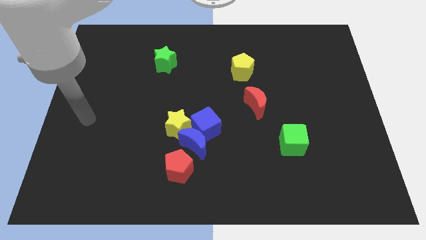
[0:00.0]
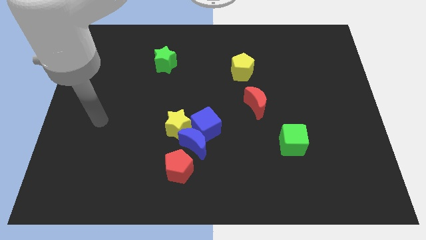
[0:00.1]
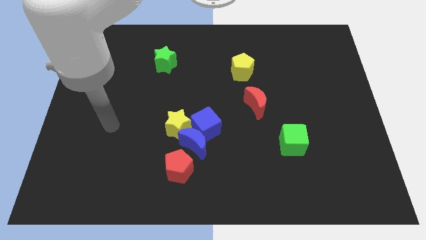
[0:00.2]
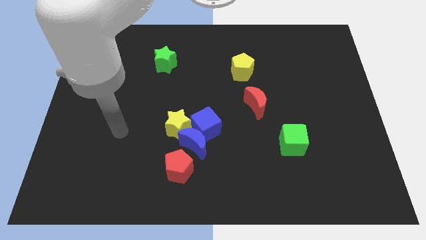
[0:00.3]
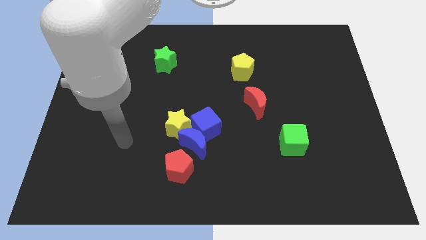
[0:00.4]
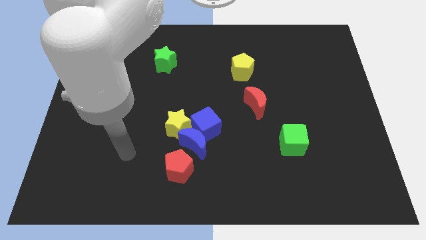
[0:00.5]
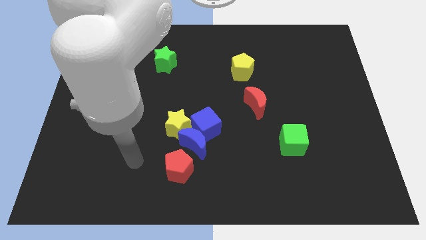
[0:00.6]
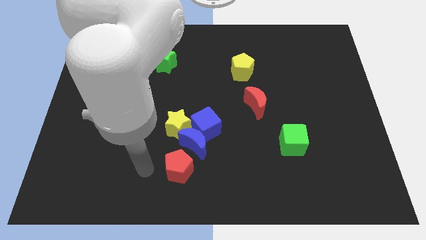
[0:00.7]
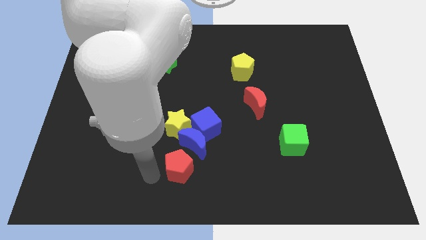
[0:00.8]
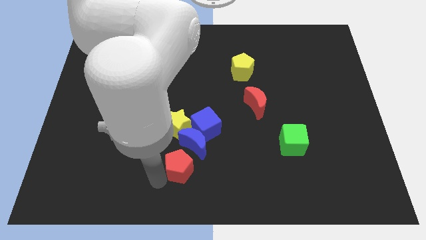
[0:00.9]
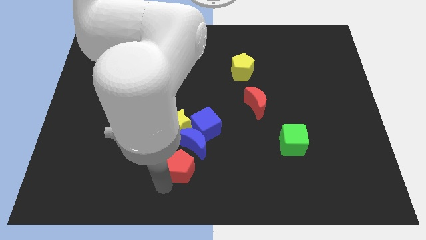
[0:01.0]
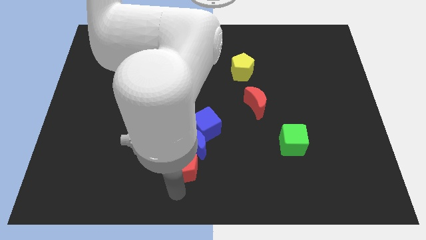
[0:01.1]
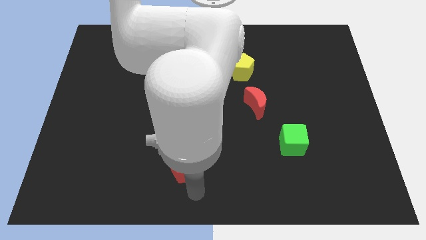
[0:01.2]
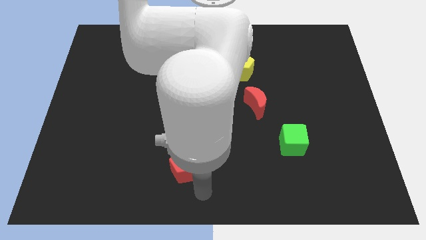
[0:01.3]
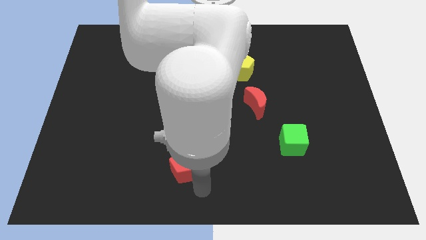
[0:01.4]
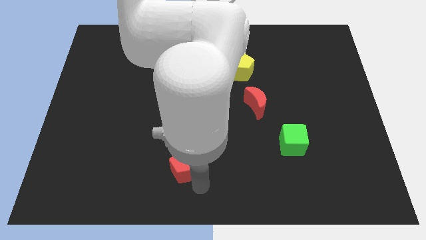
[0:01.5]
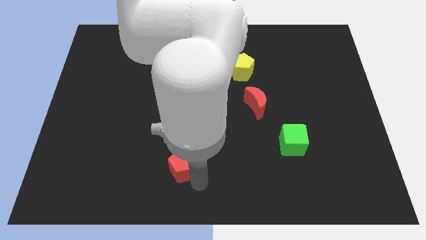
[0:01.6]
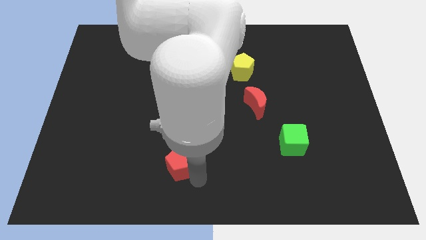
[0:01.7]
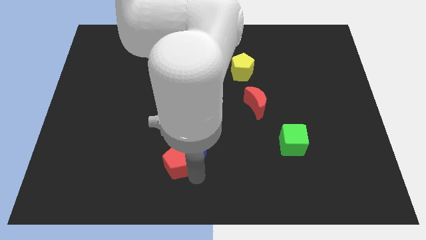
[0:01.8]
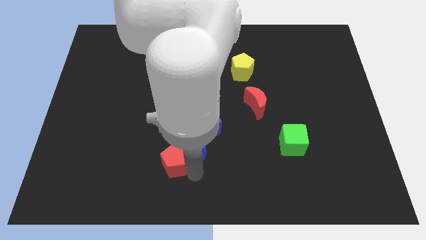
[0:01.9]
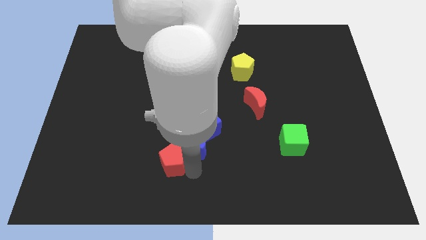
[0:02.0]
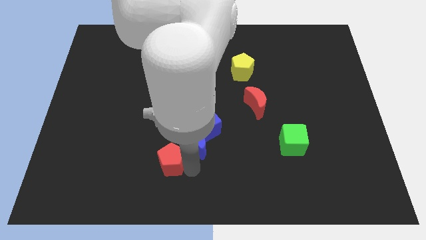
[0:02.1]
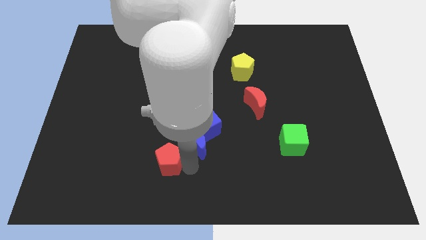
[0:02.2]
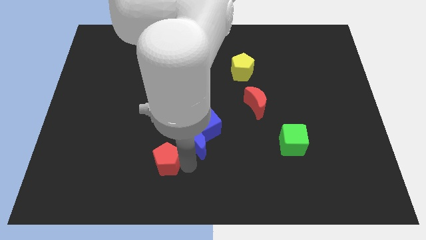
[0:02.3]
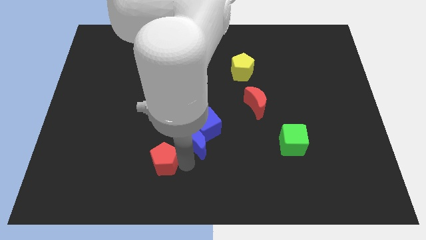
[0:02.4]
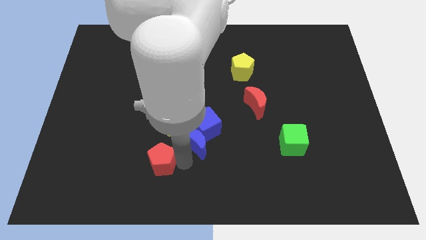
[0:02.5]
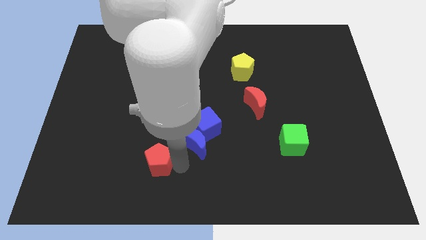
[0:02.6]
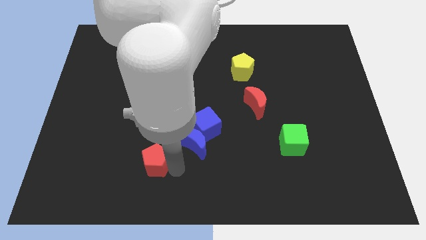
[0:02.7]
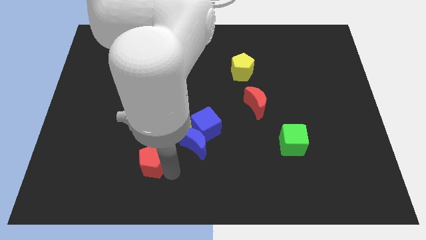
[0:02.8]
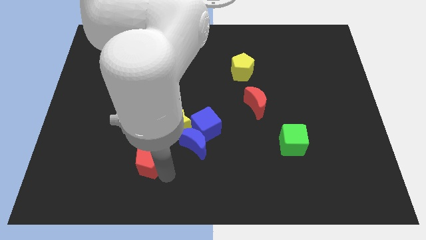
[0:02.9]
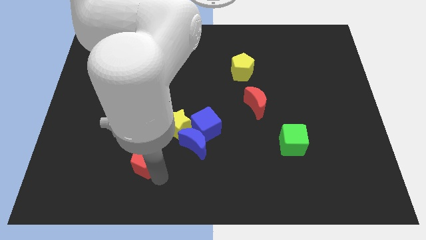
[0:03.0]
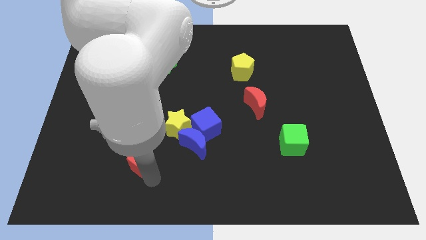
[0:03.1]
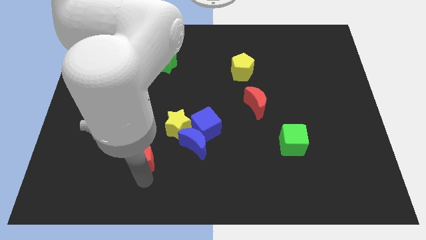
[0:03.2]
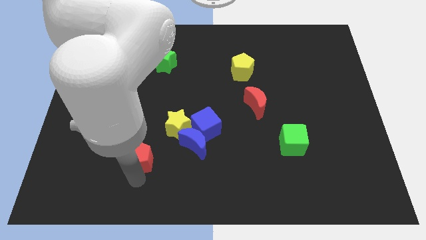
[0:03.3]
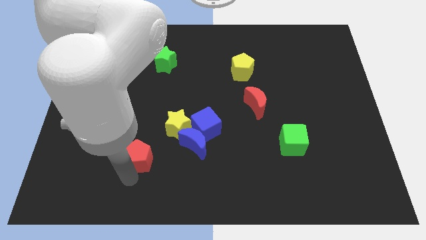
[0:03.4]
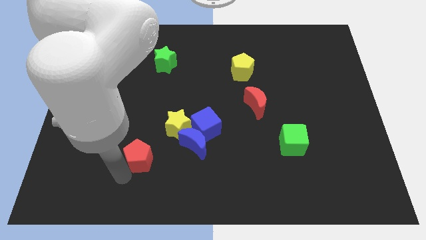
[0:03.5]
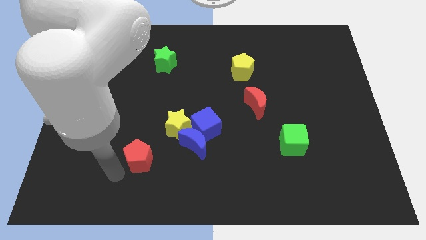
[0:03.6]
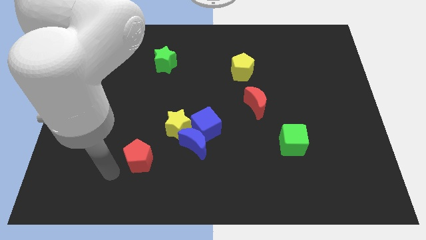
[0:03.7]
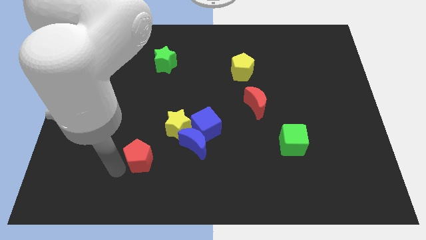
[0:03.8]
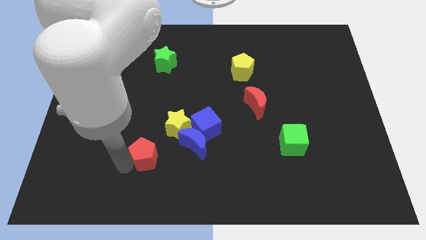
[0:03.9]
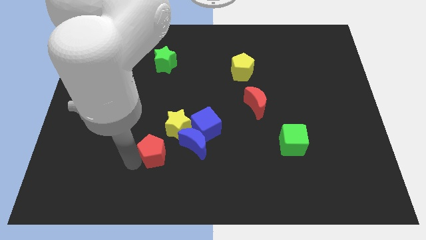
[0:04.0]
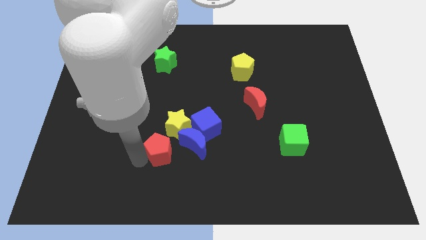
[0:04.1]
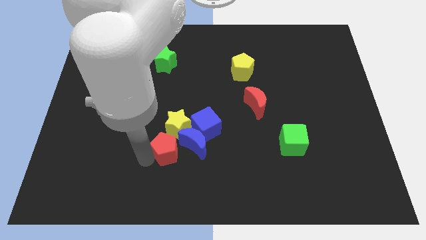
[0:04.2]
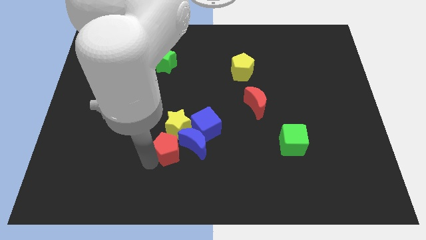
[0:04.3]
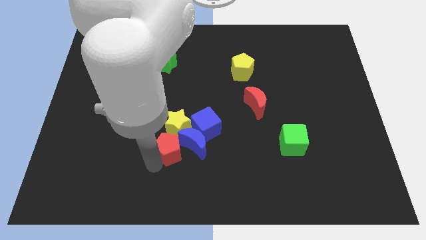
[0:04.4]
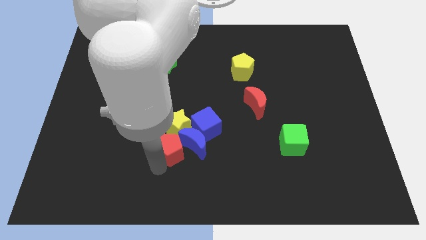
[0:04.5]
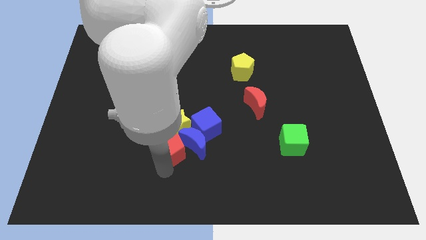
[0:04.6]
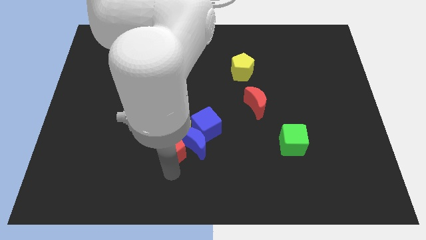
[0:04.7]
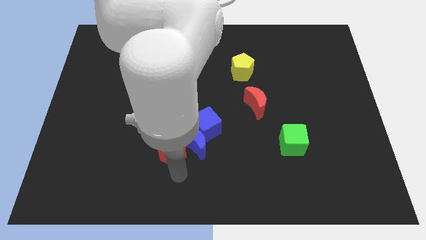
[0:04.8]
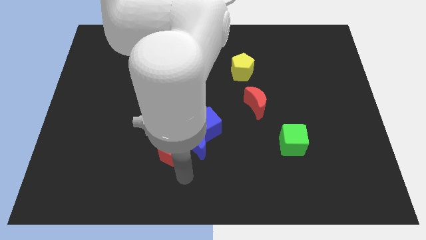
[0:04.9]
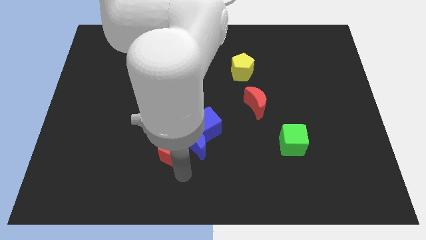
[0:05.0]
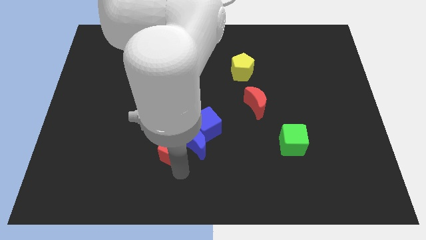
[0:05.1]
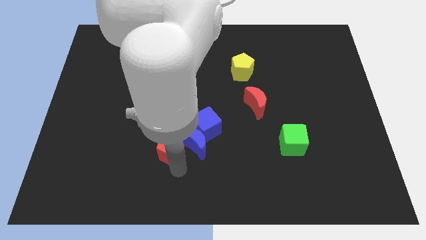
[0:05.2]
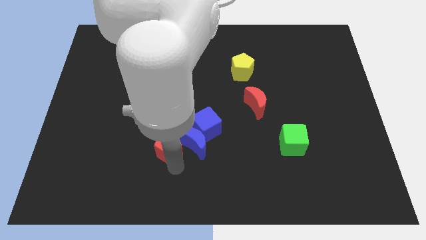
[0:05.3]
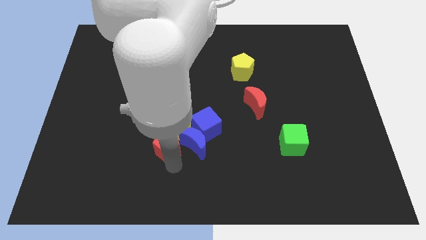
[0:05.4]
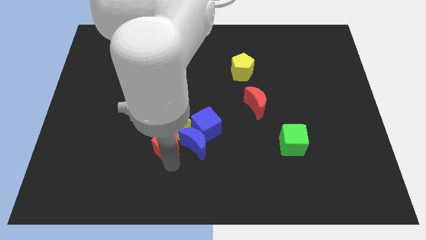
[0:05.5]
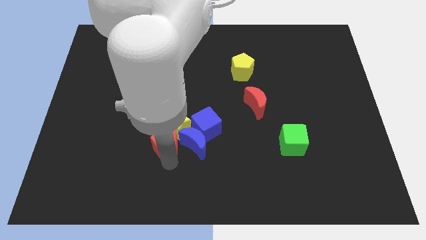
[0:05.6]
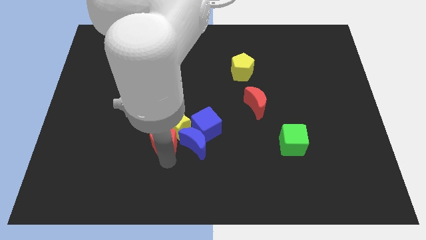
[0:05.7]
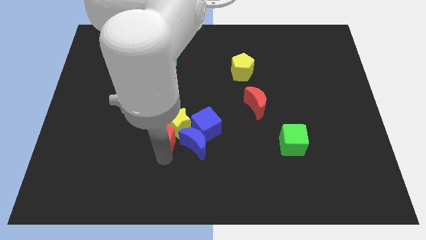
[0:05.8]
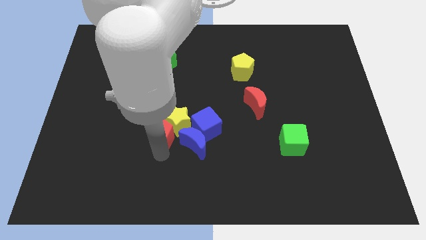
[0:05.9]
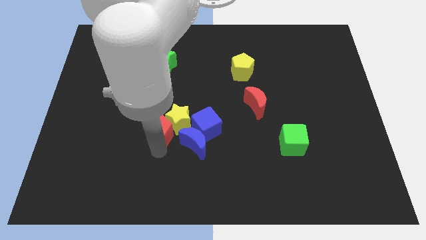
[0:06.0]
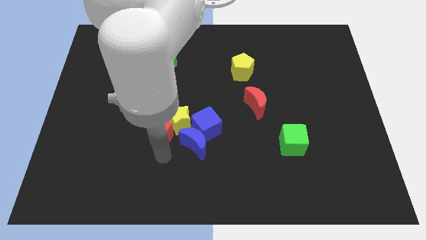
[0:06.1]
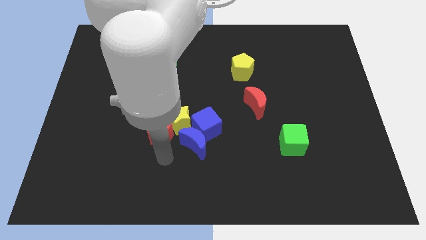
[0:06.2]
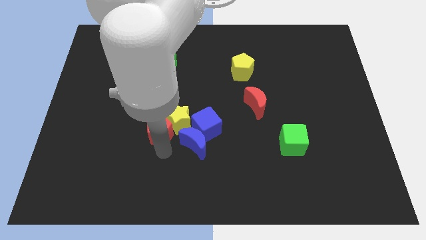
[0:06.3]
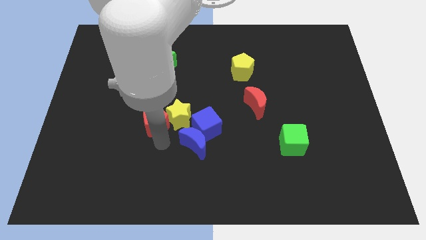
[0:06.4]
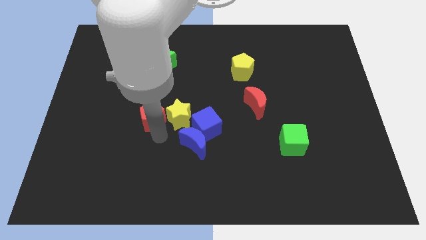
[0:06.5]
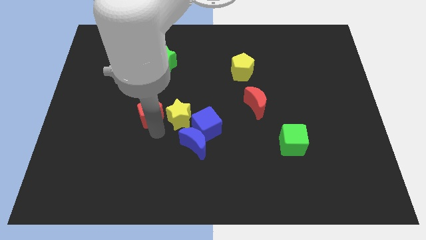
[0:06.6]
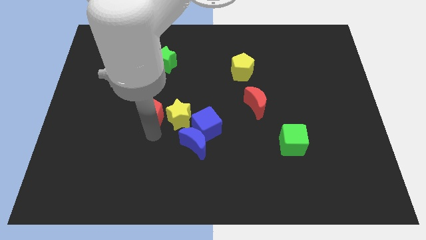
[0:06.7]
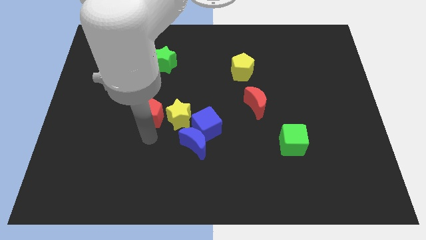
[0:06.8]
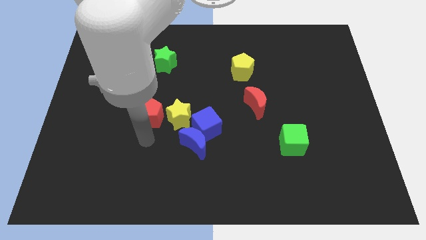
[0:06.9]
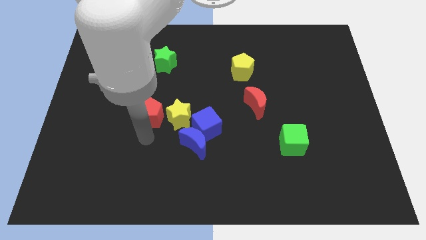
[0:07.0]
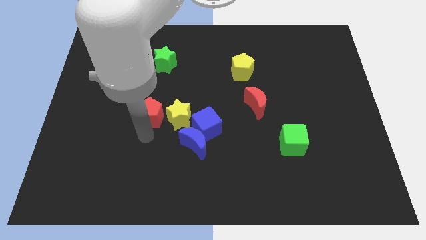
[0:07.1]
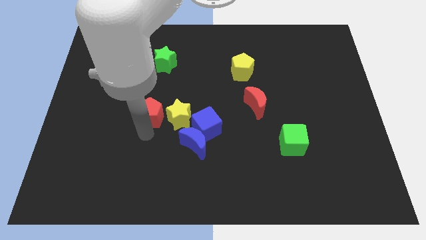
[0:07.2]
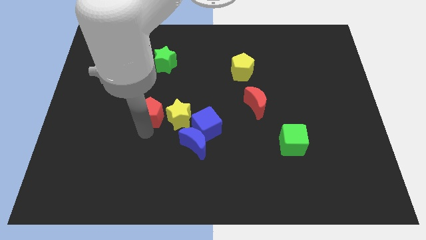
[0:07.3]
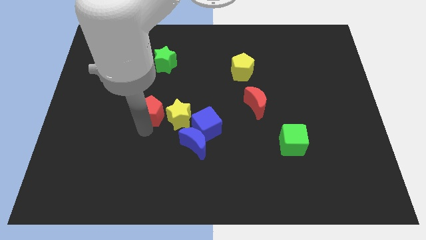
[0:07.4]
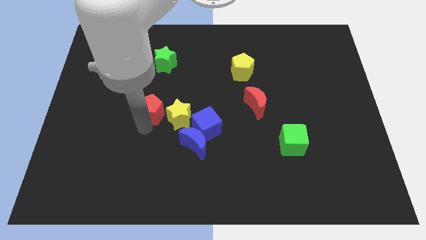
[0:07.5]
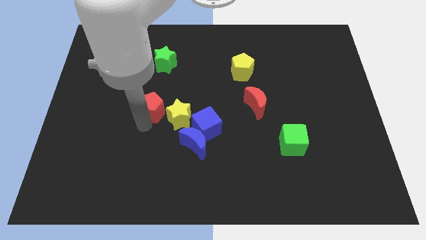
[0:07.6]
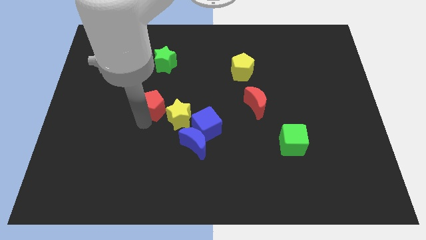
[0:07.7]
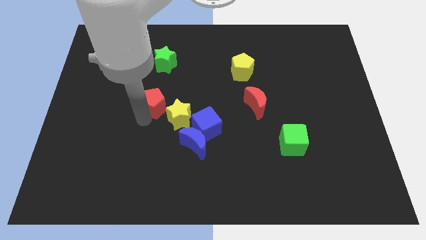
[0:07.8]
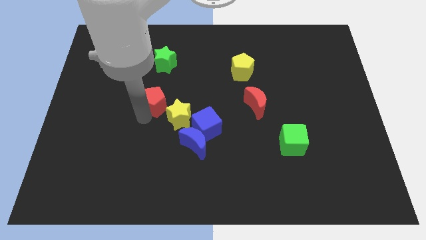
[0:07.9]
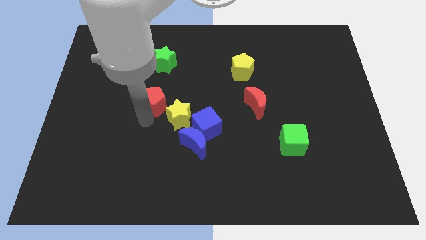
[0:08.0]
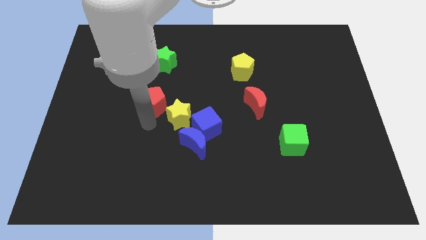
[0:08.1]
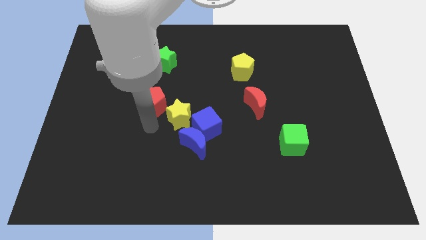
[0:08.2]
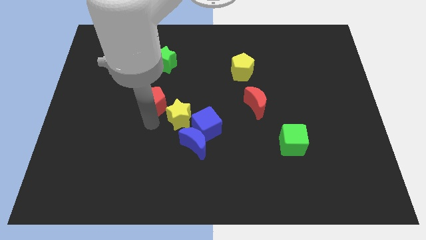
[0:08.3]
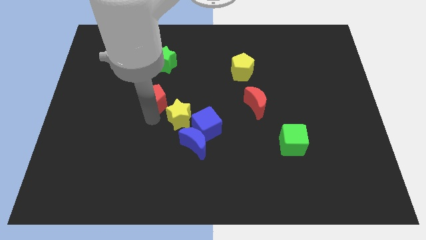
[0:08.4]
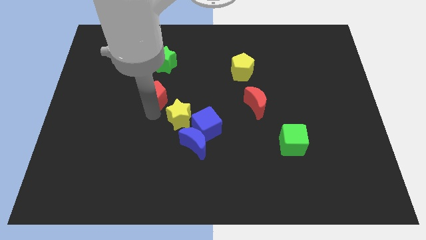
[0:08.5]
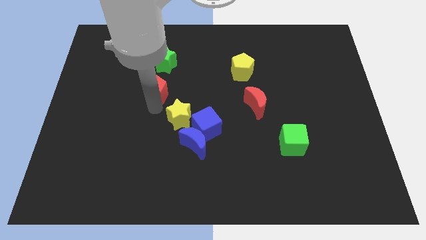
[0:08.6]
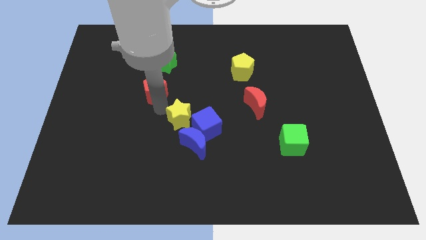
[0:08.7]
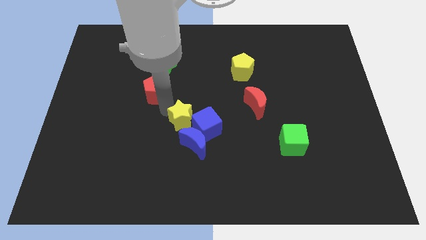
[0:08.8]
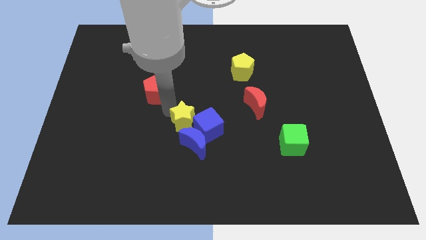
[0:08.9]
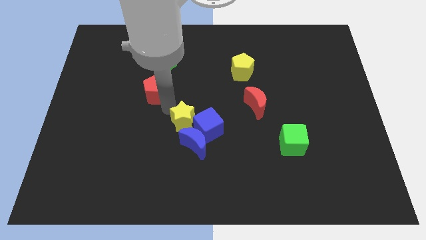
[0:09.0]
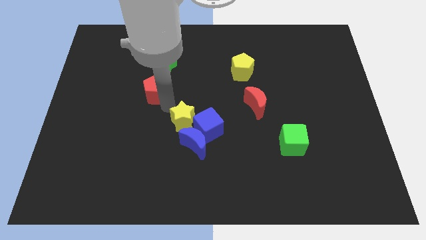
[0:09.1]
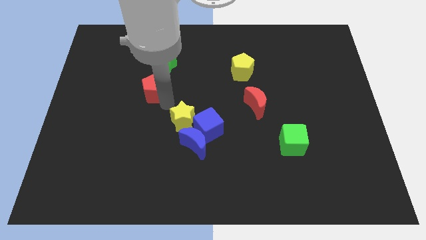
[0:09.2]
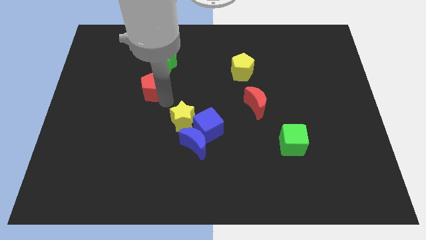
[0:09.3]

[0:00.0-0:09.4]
put the red pentagon to the bottom left of the green star
